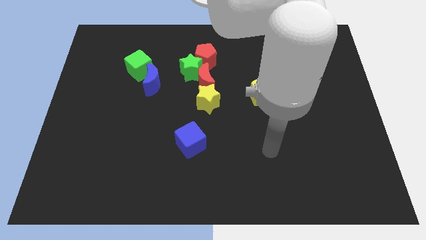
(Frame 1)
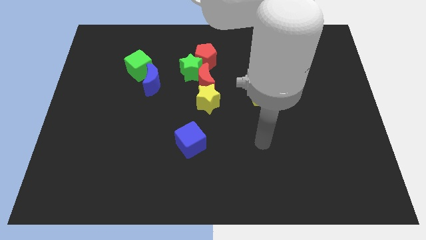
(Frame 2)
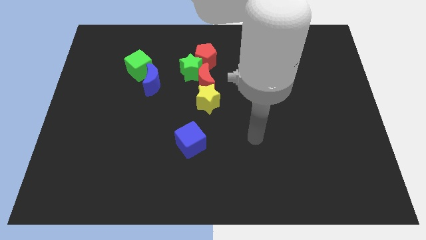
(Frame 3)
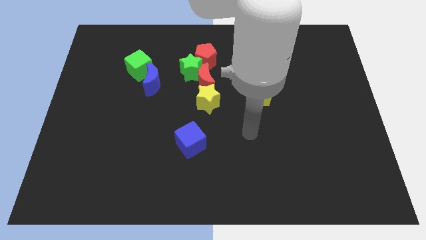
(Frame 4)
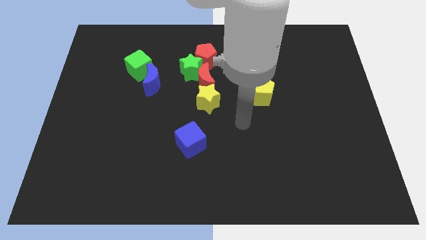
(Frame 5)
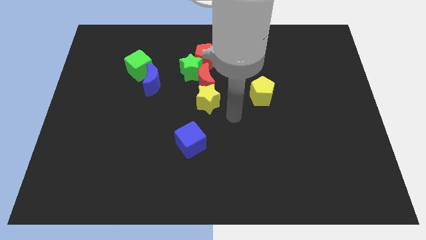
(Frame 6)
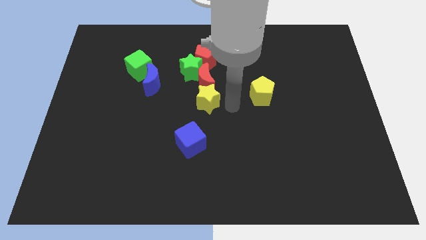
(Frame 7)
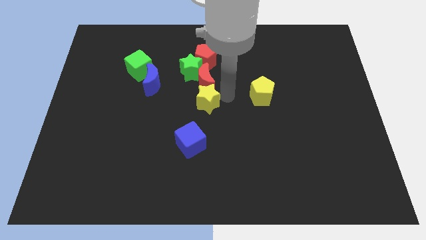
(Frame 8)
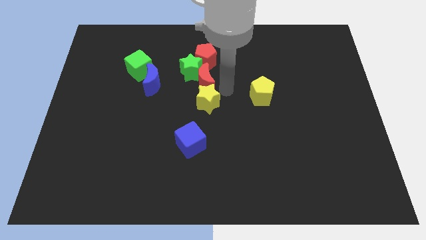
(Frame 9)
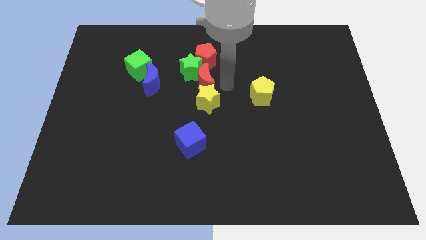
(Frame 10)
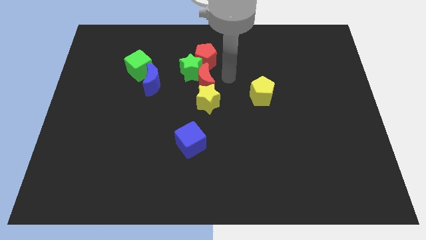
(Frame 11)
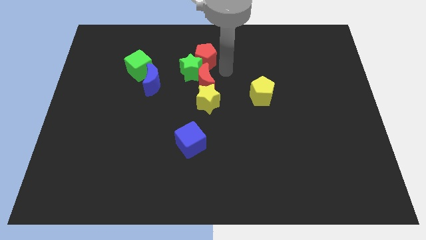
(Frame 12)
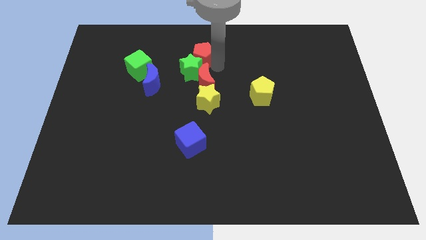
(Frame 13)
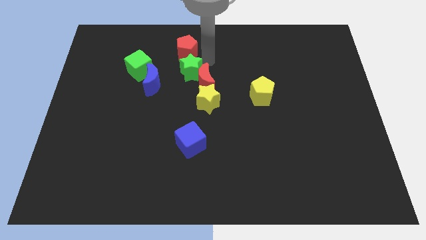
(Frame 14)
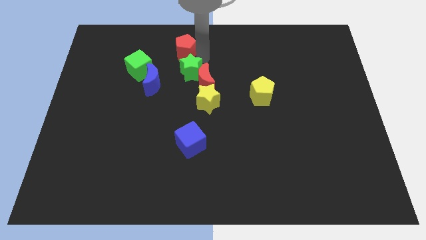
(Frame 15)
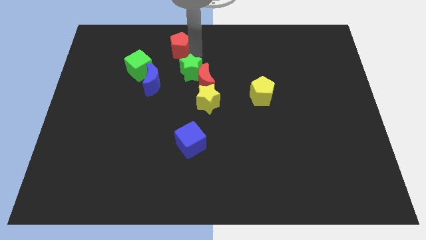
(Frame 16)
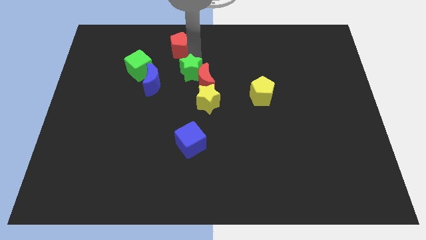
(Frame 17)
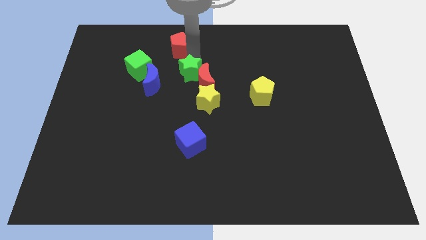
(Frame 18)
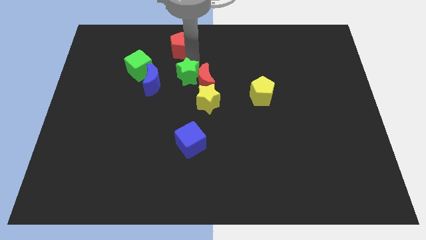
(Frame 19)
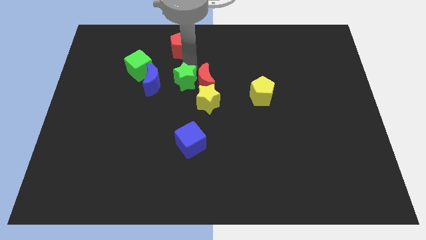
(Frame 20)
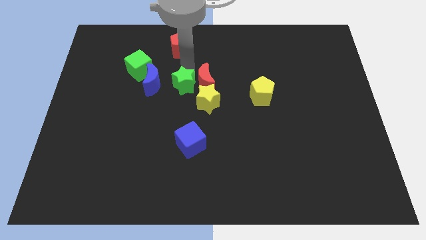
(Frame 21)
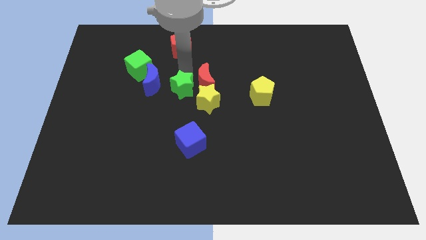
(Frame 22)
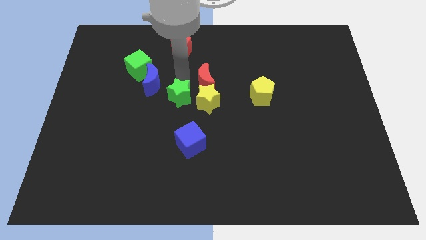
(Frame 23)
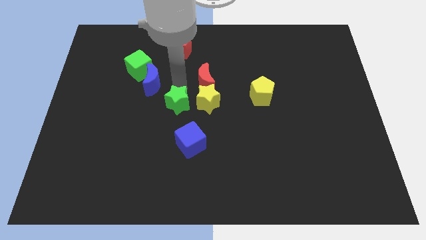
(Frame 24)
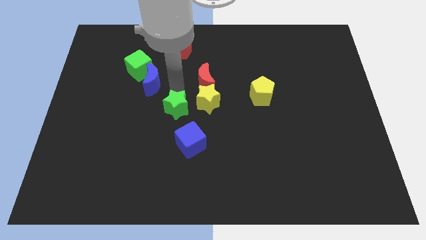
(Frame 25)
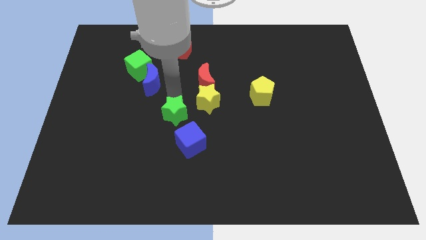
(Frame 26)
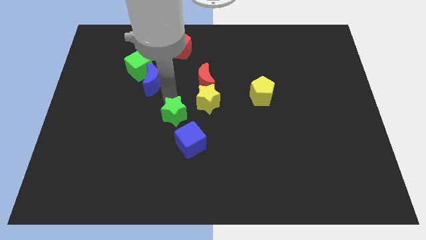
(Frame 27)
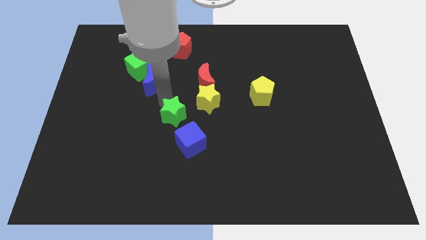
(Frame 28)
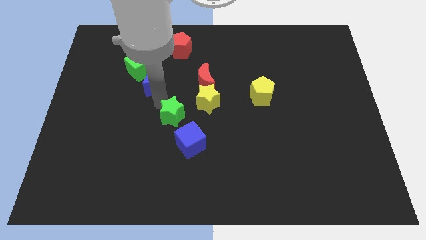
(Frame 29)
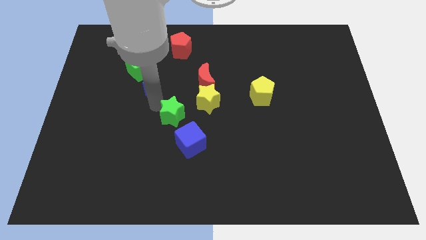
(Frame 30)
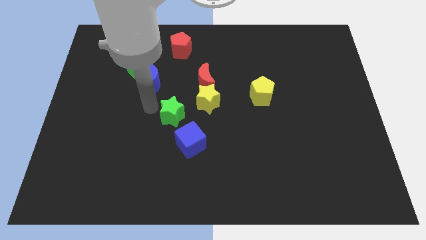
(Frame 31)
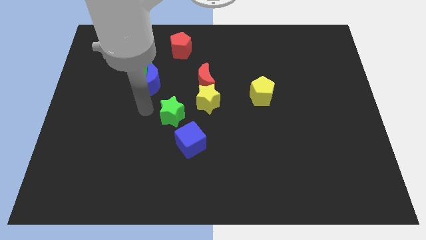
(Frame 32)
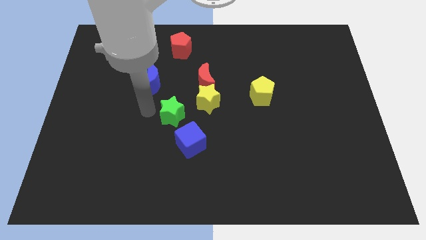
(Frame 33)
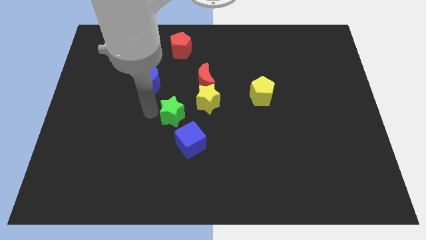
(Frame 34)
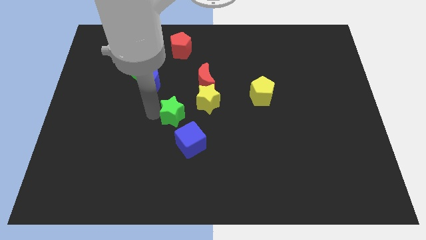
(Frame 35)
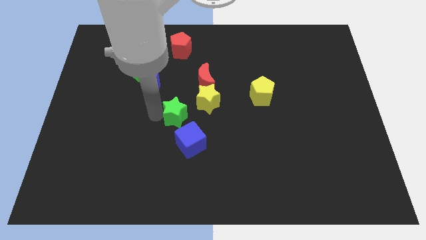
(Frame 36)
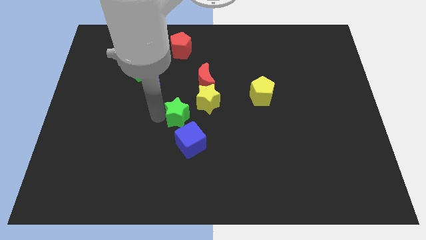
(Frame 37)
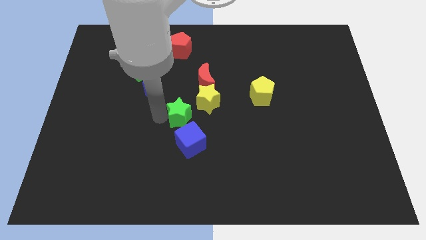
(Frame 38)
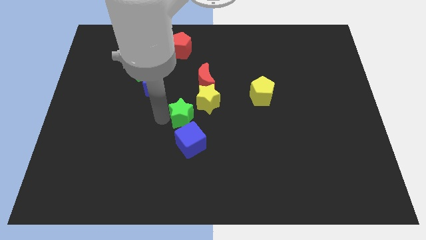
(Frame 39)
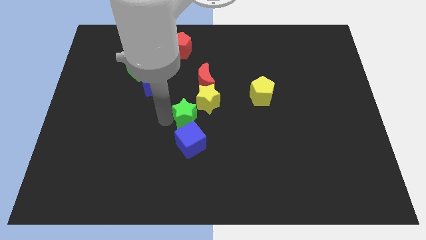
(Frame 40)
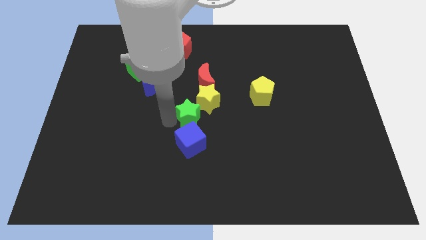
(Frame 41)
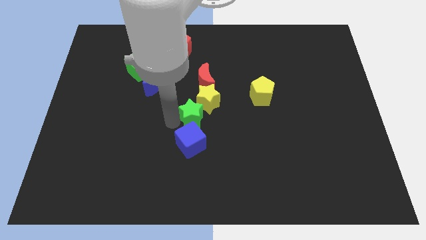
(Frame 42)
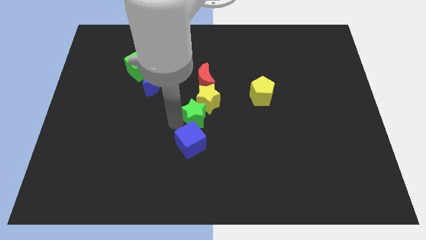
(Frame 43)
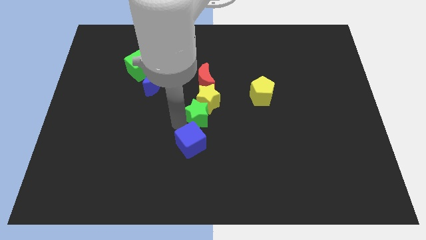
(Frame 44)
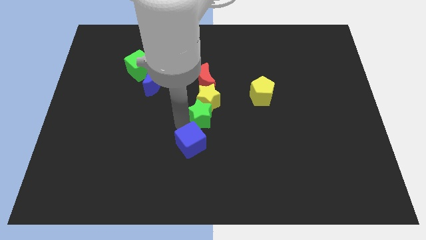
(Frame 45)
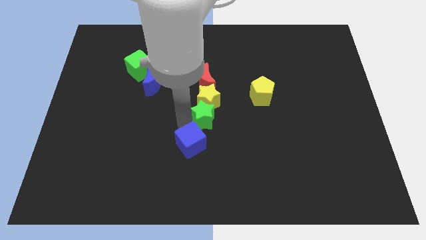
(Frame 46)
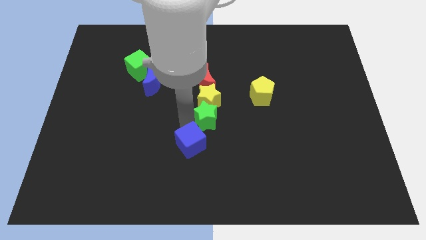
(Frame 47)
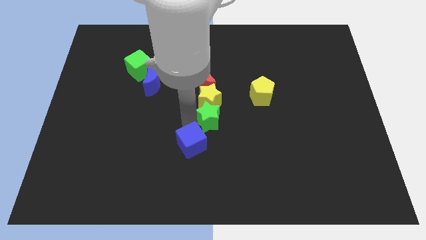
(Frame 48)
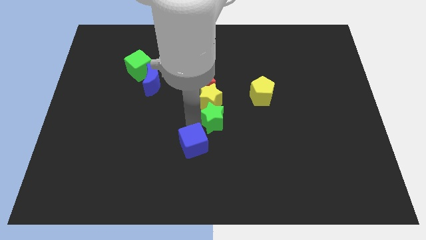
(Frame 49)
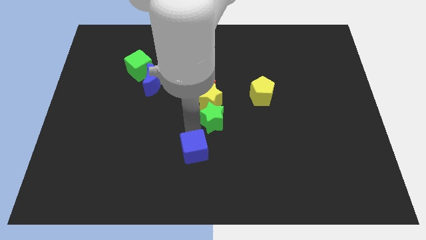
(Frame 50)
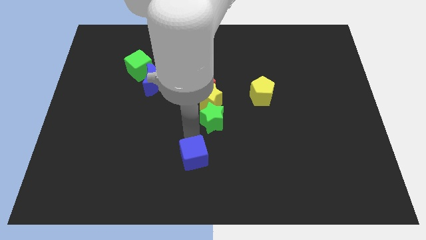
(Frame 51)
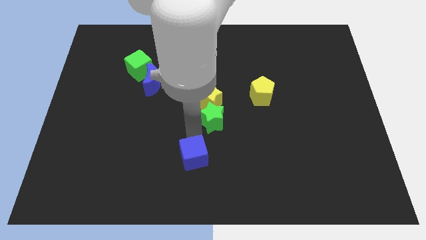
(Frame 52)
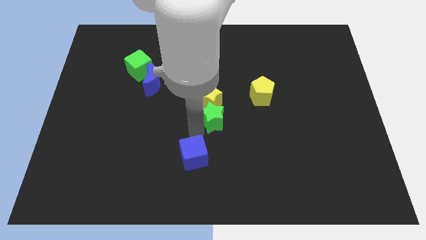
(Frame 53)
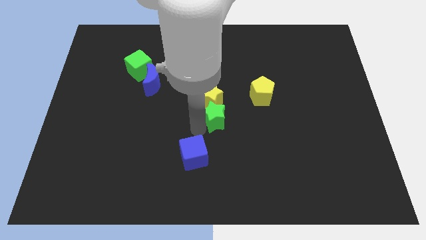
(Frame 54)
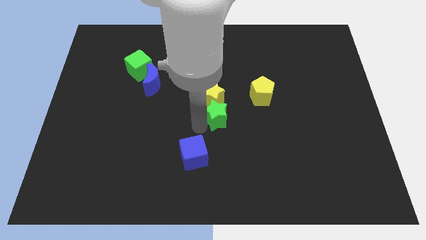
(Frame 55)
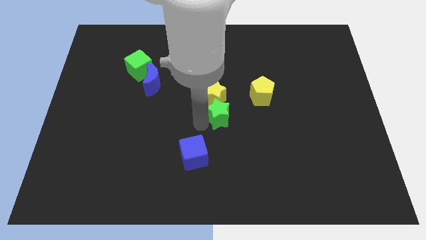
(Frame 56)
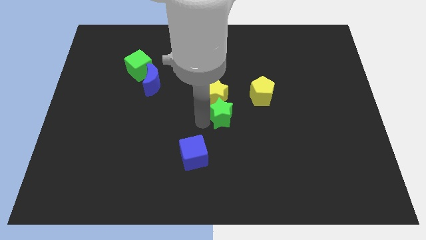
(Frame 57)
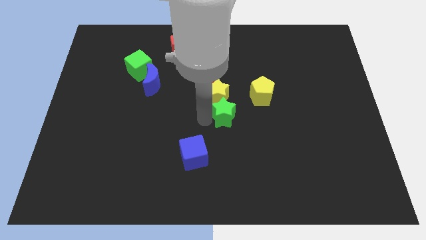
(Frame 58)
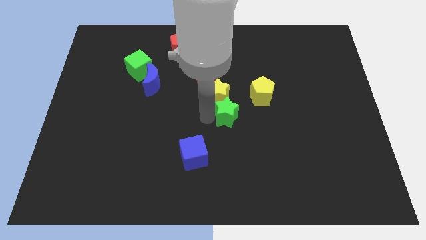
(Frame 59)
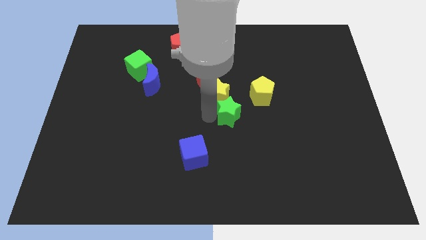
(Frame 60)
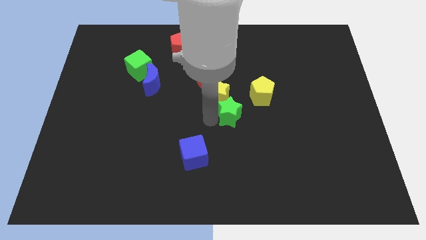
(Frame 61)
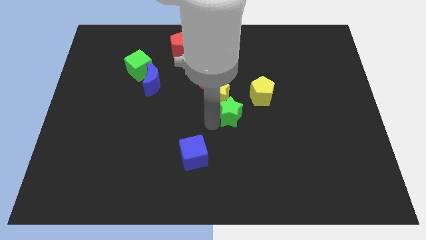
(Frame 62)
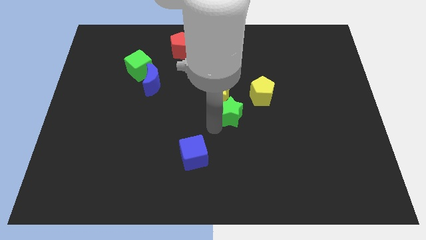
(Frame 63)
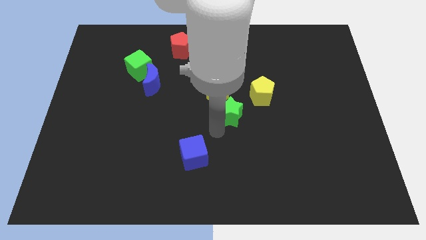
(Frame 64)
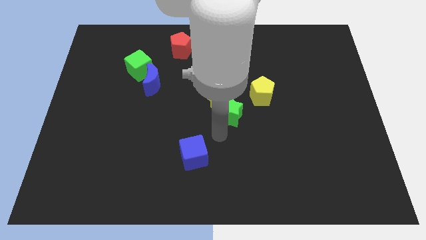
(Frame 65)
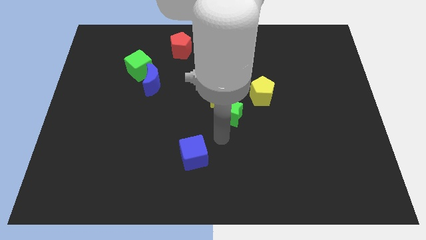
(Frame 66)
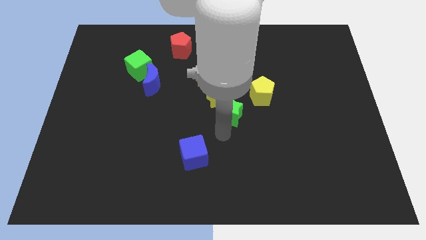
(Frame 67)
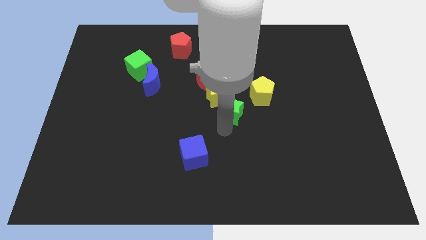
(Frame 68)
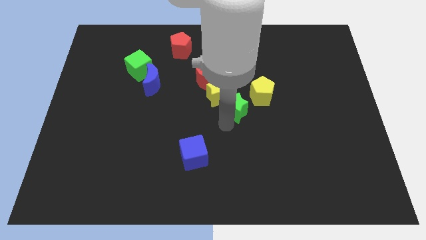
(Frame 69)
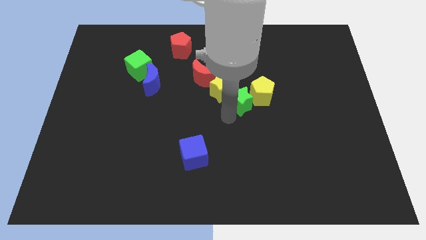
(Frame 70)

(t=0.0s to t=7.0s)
put the green star towards the yellow pentagon
